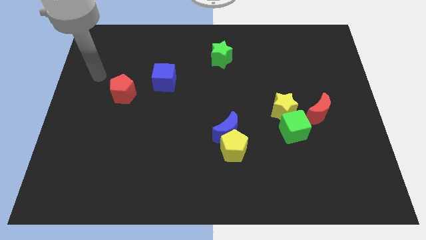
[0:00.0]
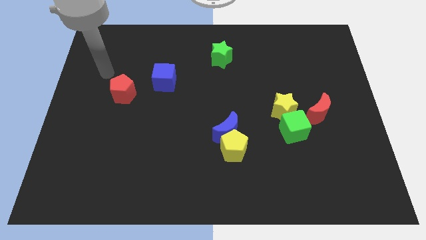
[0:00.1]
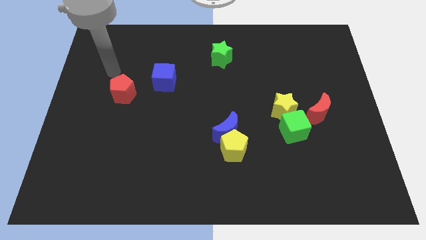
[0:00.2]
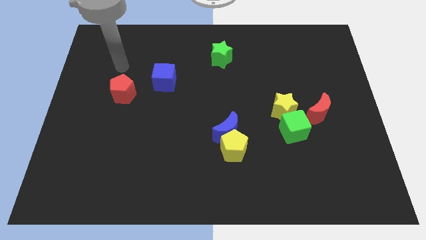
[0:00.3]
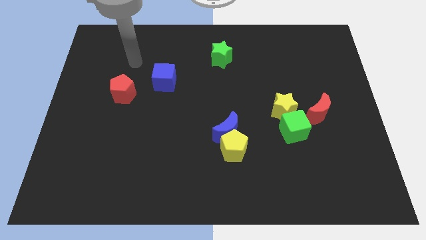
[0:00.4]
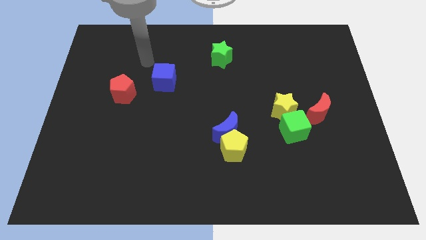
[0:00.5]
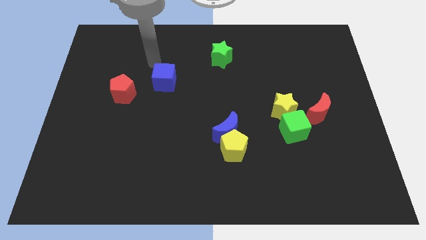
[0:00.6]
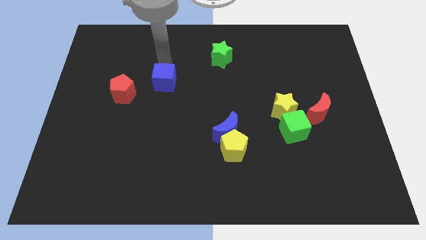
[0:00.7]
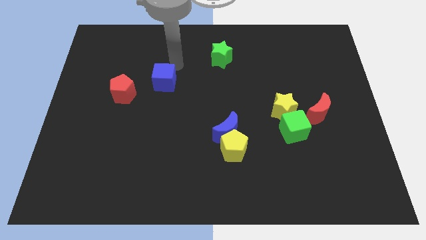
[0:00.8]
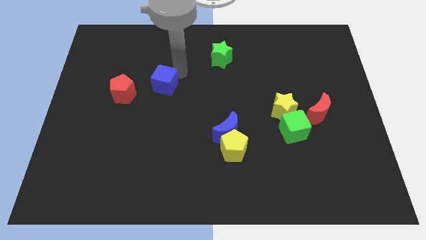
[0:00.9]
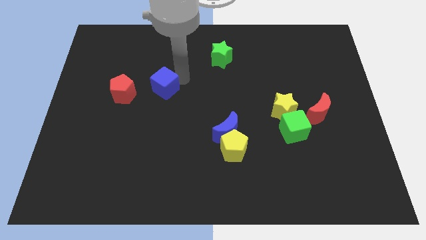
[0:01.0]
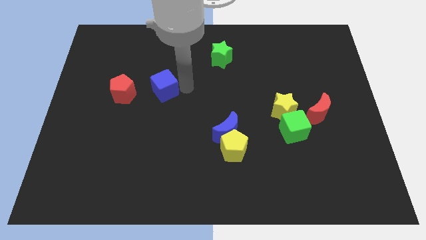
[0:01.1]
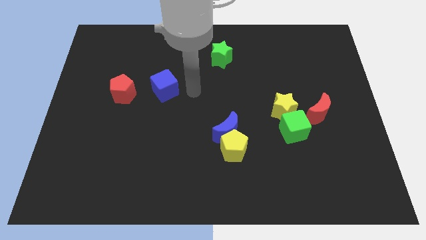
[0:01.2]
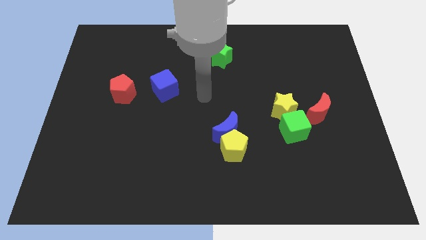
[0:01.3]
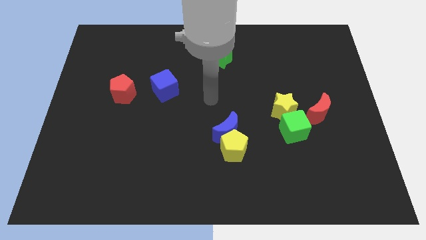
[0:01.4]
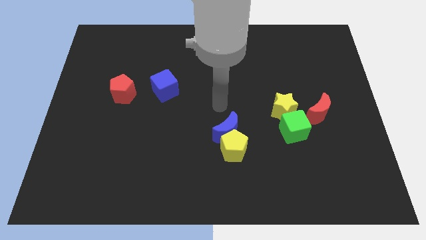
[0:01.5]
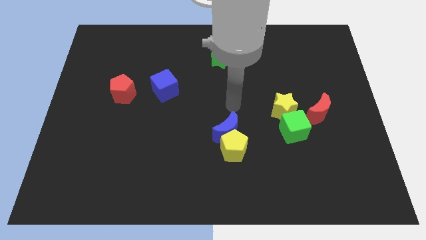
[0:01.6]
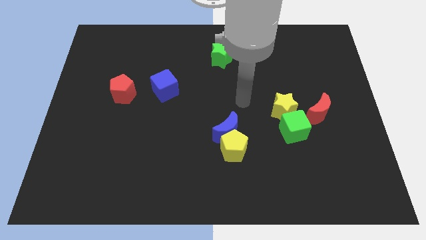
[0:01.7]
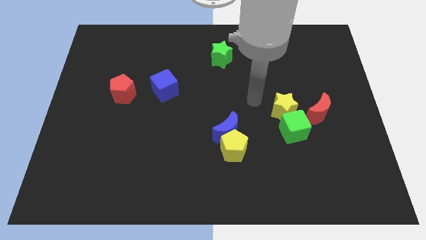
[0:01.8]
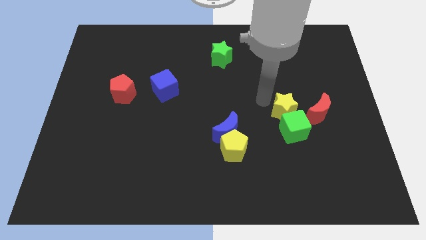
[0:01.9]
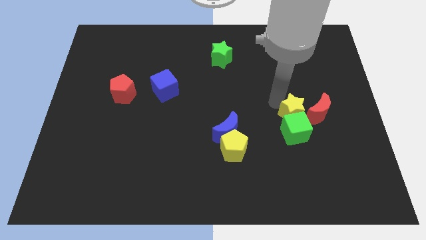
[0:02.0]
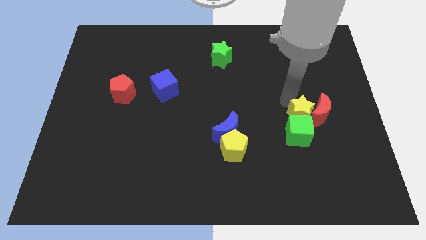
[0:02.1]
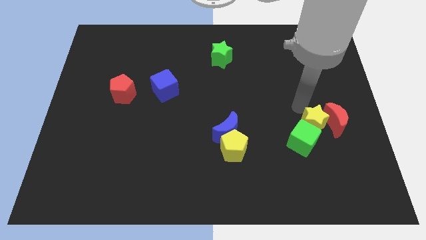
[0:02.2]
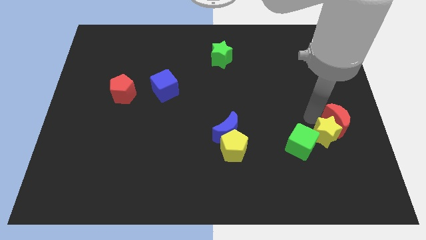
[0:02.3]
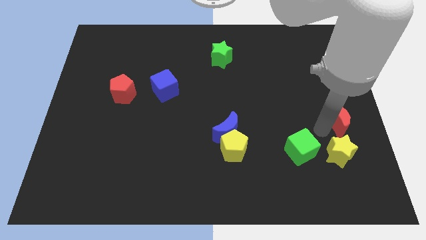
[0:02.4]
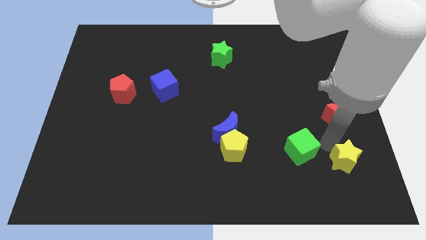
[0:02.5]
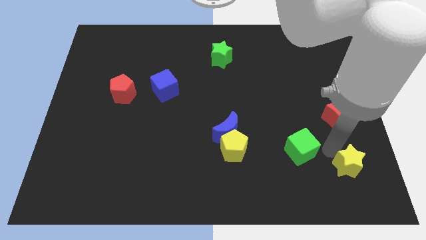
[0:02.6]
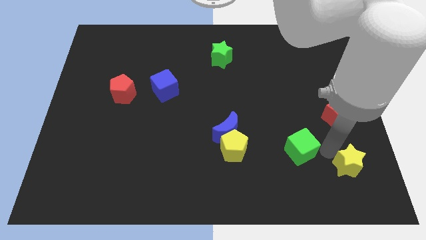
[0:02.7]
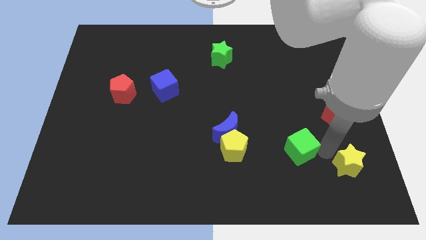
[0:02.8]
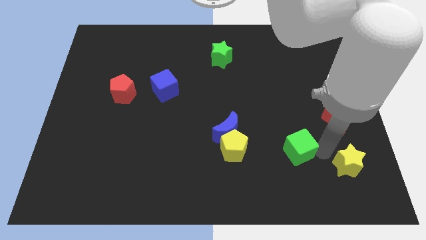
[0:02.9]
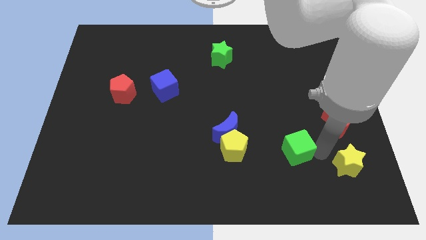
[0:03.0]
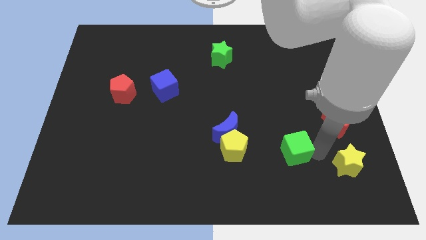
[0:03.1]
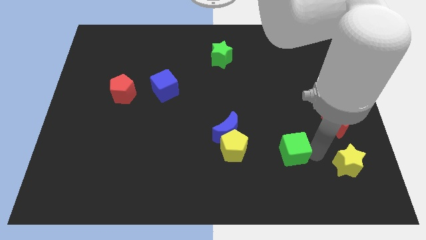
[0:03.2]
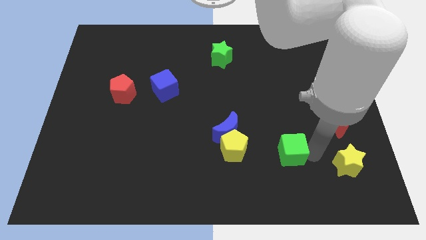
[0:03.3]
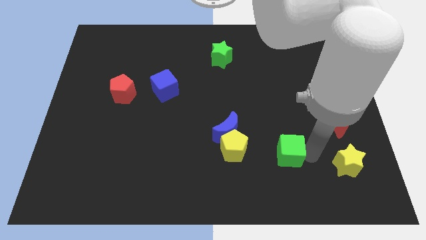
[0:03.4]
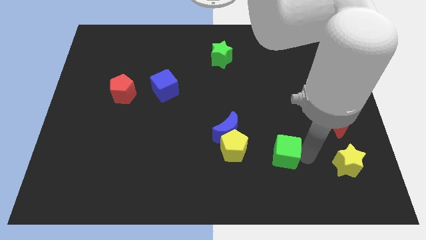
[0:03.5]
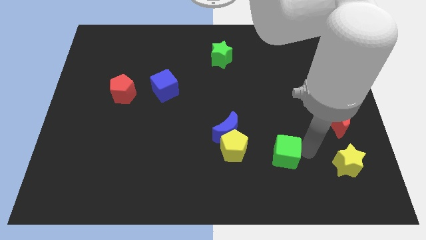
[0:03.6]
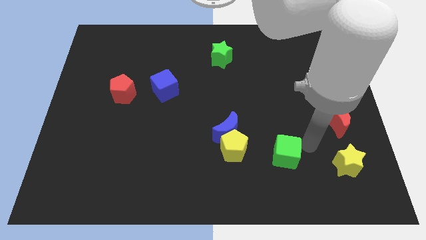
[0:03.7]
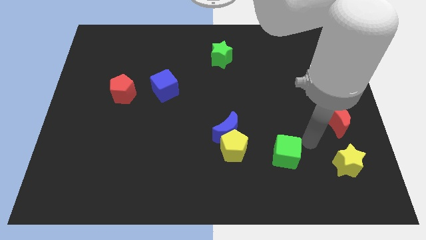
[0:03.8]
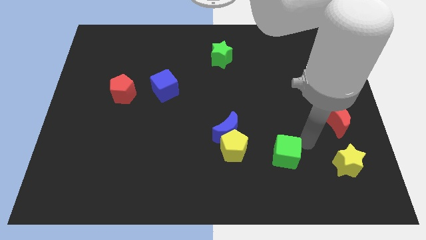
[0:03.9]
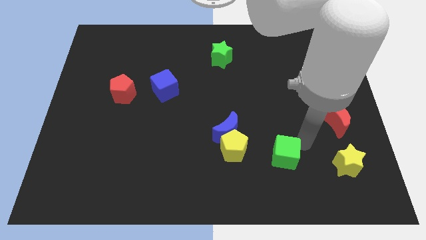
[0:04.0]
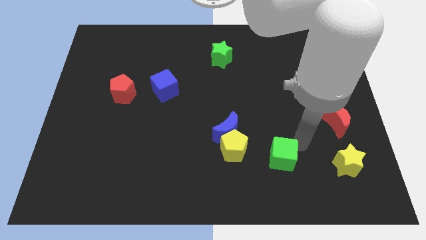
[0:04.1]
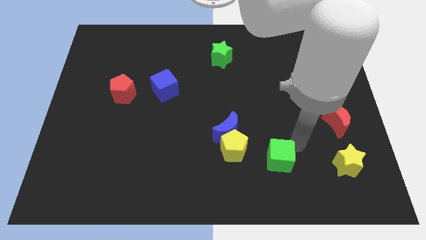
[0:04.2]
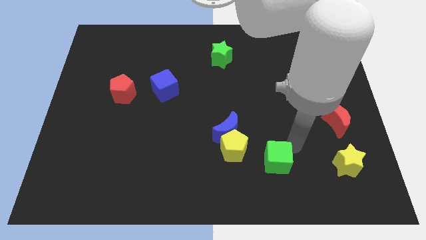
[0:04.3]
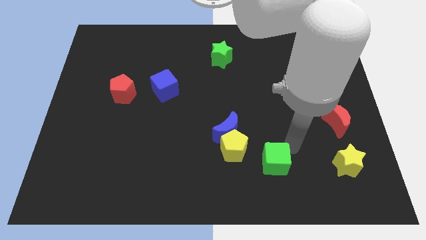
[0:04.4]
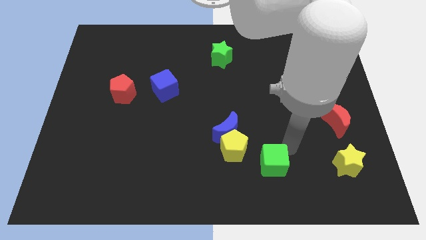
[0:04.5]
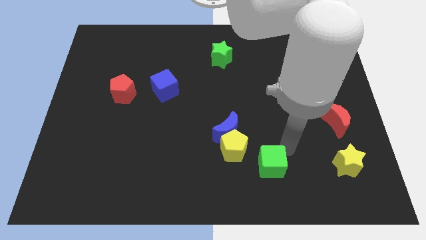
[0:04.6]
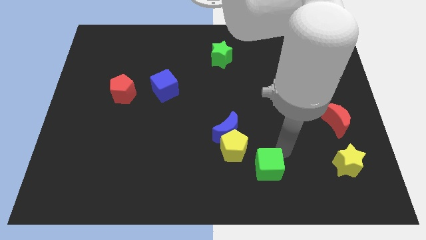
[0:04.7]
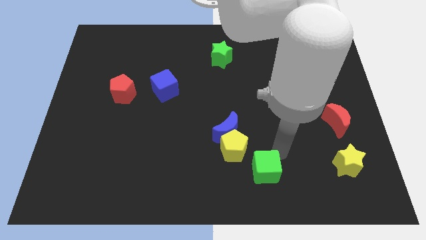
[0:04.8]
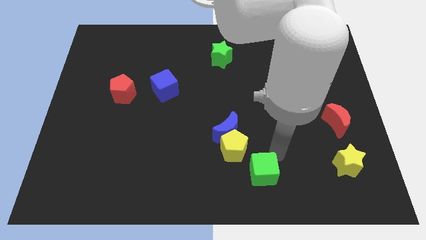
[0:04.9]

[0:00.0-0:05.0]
move the green cube to the bottom

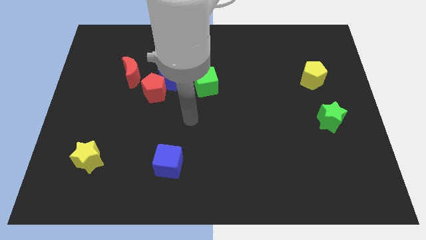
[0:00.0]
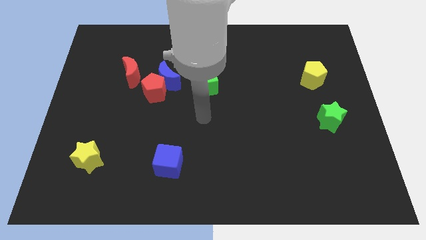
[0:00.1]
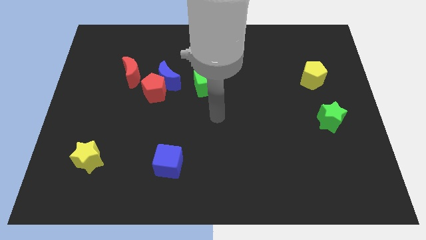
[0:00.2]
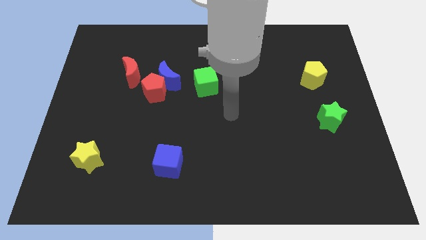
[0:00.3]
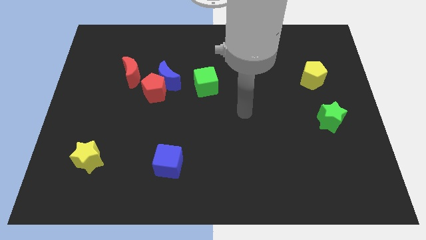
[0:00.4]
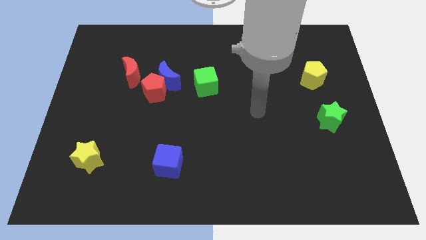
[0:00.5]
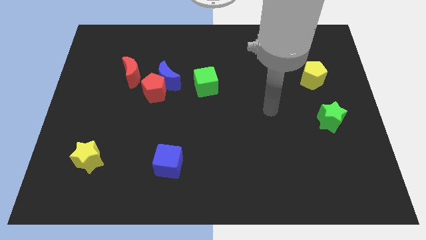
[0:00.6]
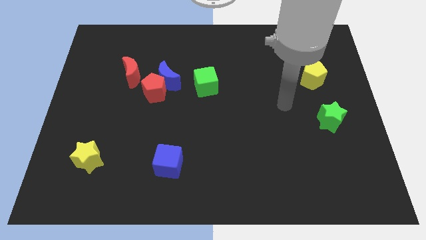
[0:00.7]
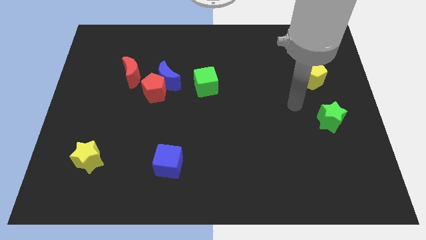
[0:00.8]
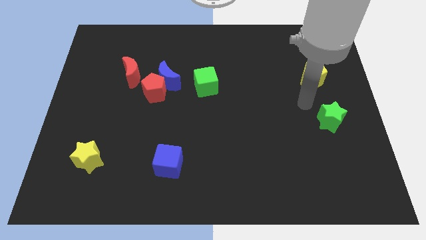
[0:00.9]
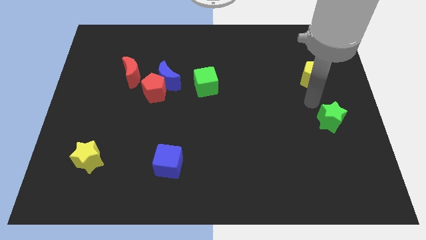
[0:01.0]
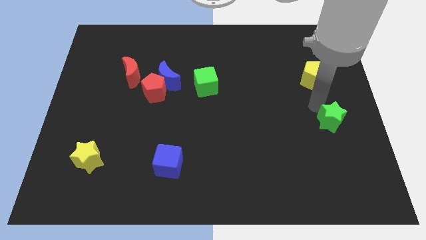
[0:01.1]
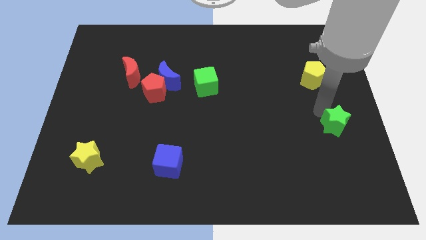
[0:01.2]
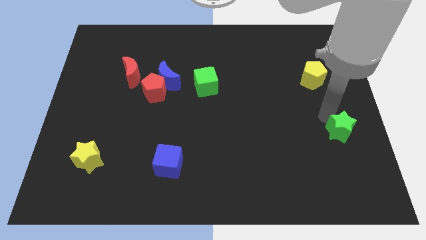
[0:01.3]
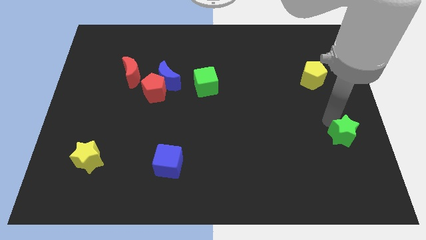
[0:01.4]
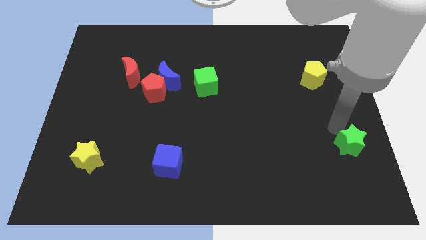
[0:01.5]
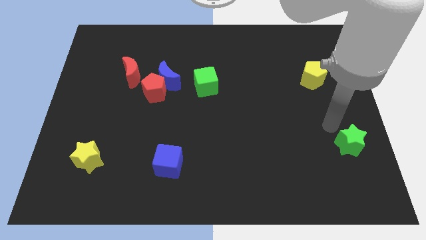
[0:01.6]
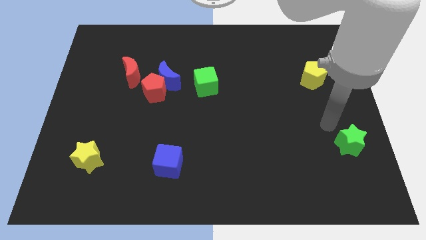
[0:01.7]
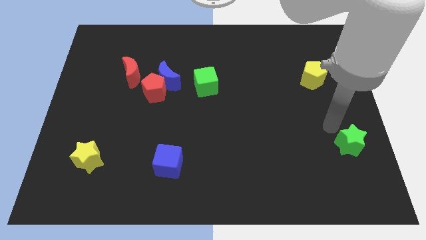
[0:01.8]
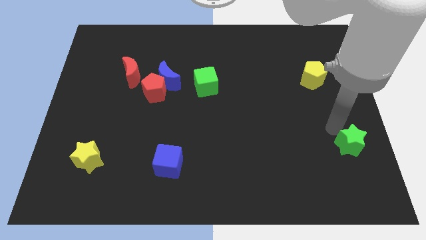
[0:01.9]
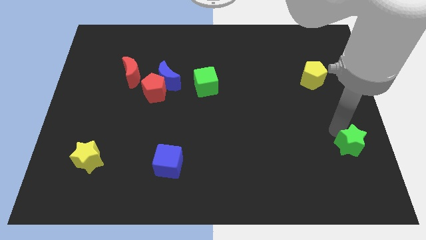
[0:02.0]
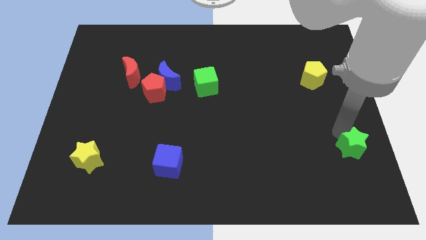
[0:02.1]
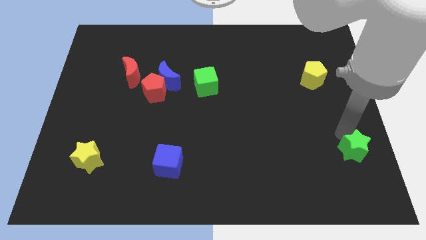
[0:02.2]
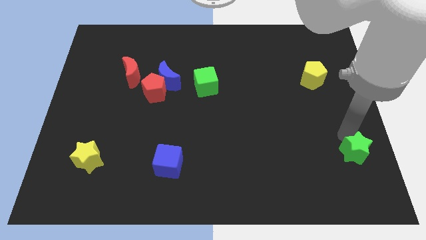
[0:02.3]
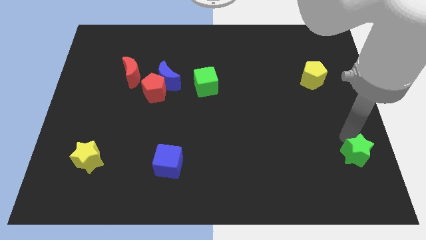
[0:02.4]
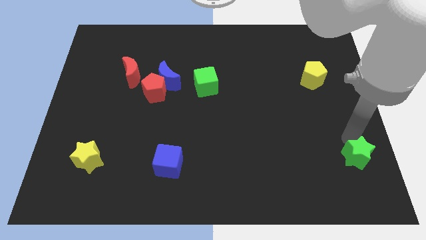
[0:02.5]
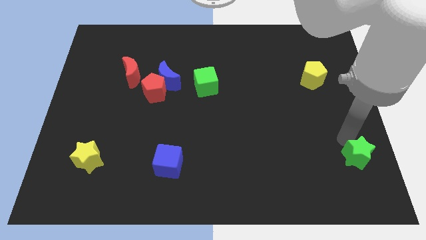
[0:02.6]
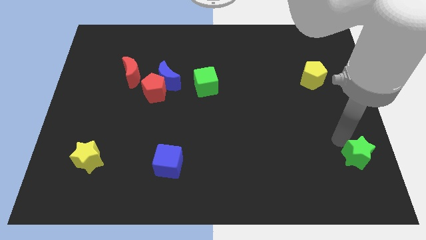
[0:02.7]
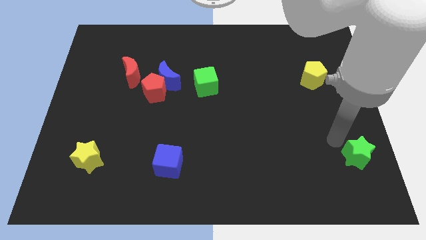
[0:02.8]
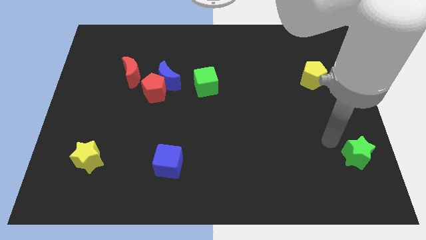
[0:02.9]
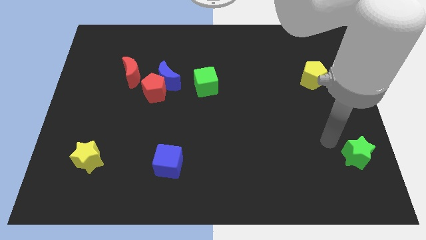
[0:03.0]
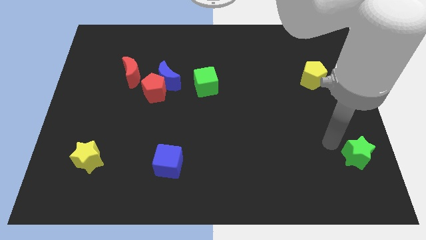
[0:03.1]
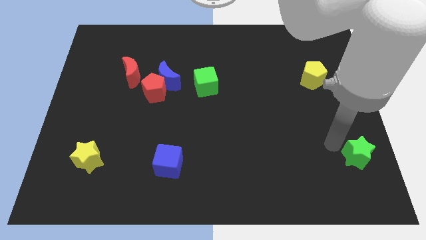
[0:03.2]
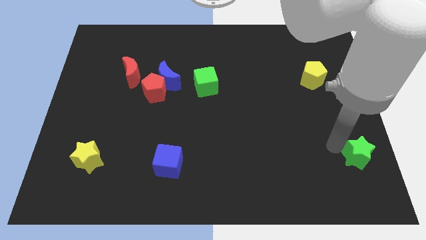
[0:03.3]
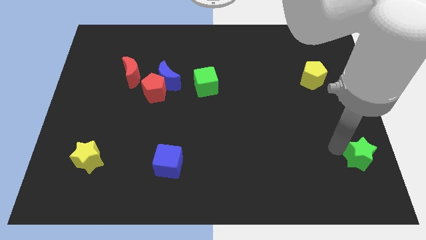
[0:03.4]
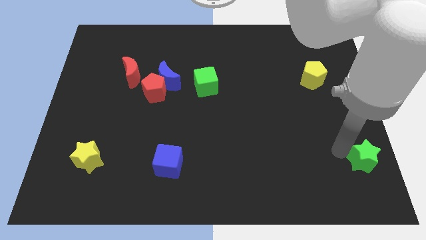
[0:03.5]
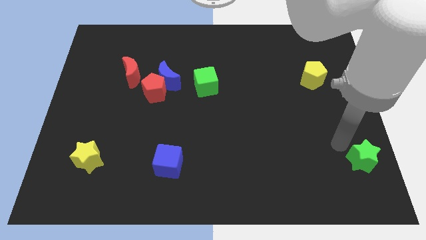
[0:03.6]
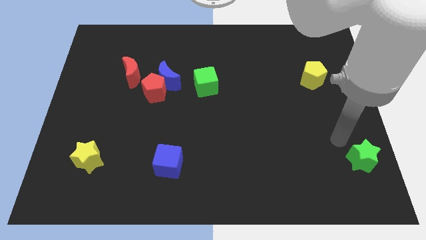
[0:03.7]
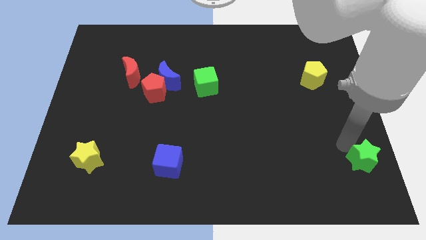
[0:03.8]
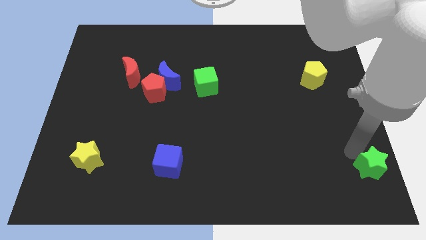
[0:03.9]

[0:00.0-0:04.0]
push the green star to the lower right corner
